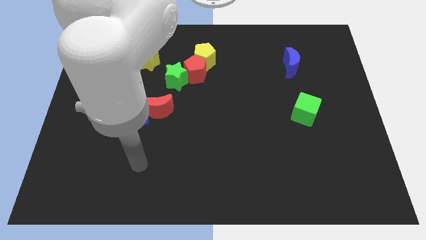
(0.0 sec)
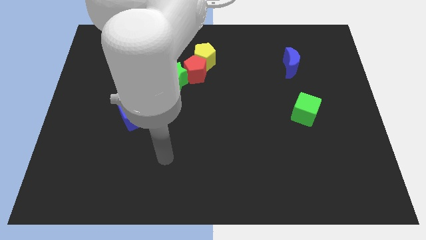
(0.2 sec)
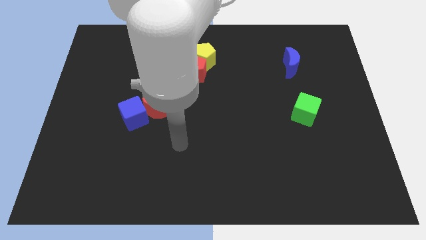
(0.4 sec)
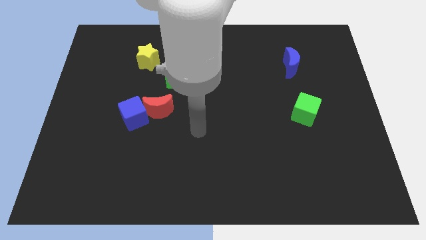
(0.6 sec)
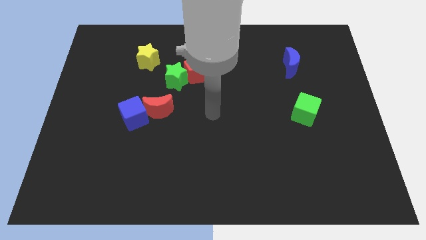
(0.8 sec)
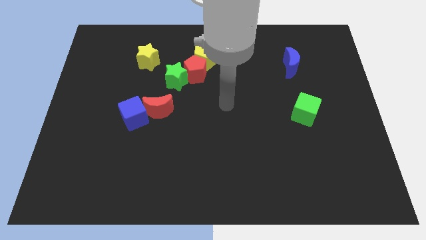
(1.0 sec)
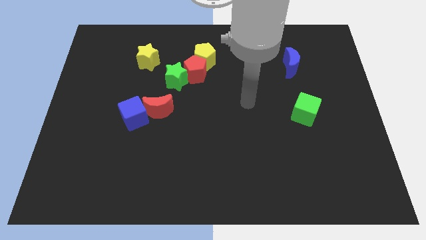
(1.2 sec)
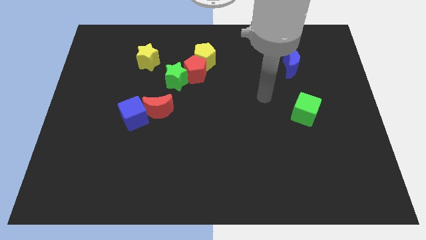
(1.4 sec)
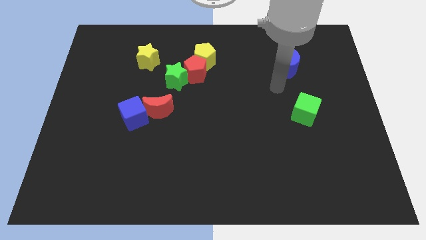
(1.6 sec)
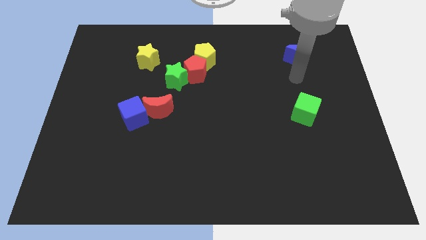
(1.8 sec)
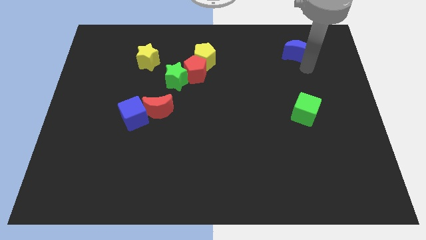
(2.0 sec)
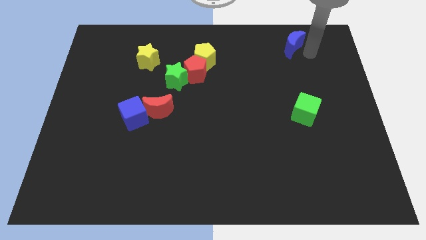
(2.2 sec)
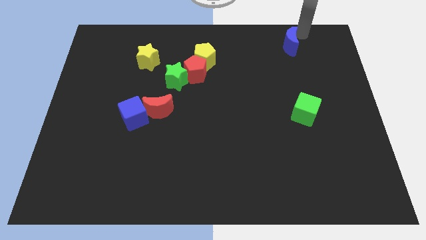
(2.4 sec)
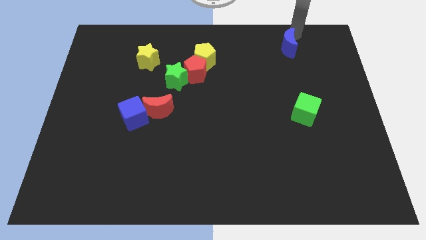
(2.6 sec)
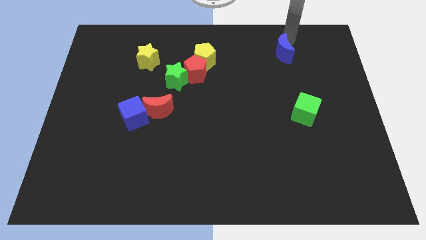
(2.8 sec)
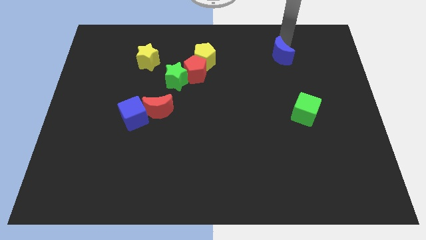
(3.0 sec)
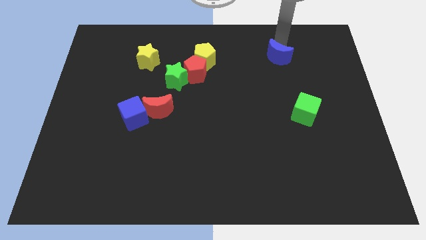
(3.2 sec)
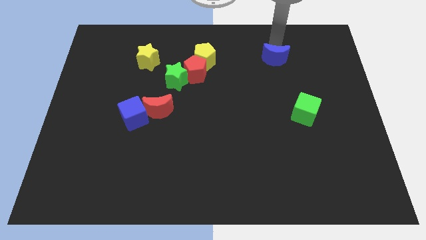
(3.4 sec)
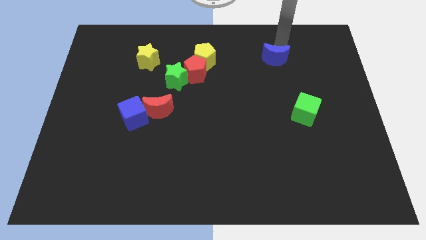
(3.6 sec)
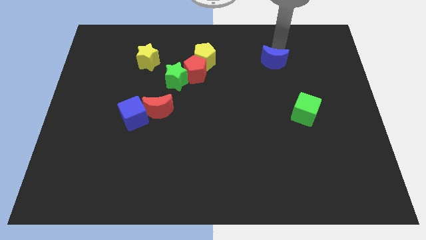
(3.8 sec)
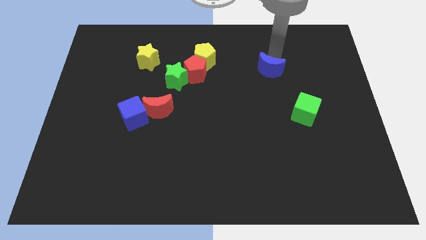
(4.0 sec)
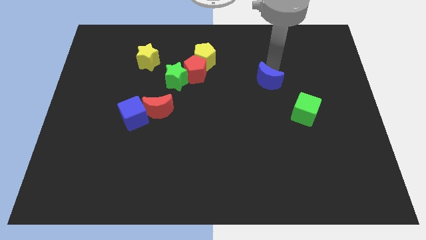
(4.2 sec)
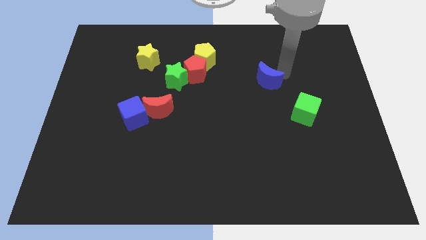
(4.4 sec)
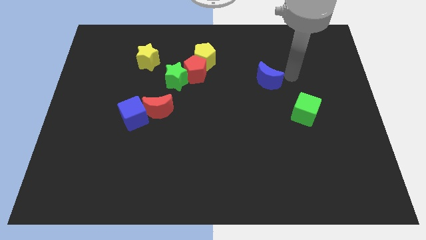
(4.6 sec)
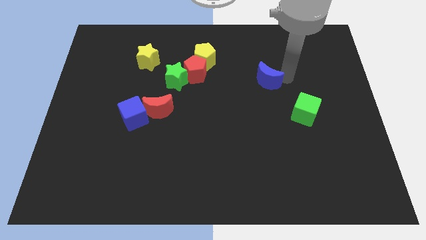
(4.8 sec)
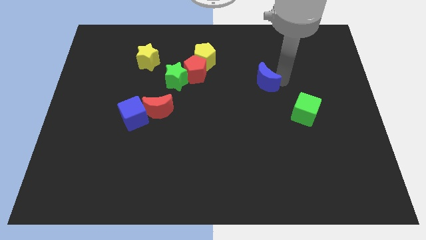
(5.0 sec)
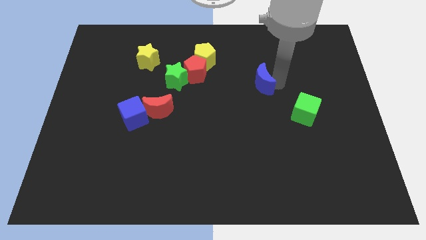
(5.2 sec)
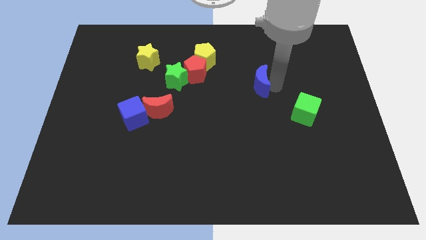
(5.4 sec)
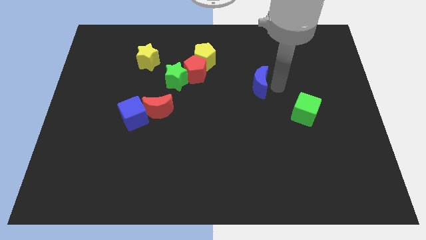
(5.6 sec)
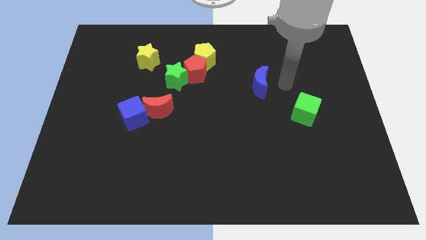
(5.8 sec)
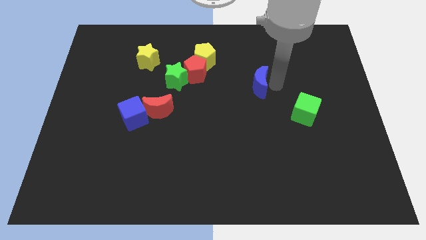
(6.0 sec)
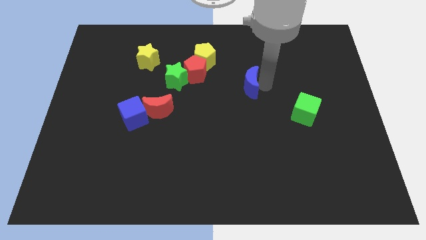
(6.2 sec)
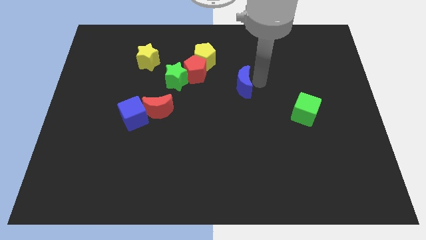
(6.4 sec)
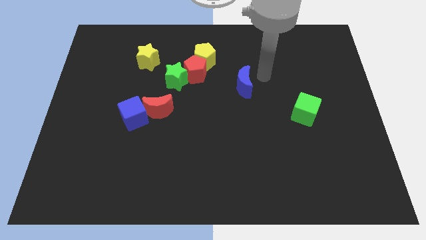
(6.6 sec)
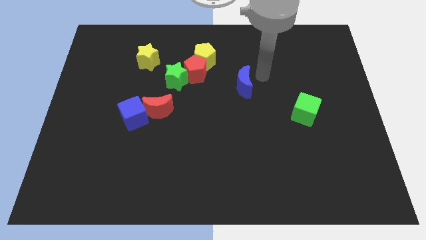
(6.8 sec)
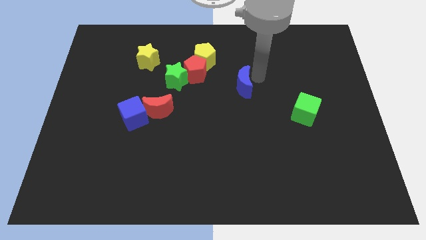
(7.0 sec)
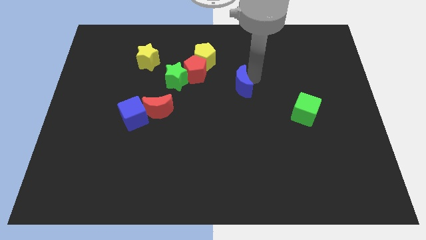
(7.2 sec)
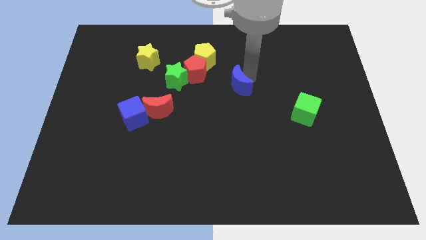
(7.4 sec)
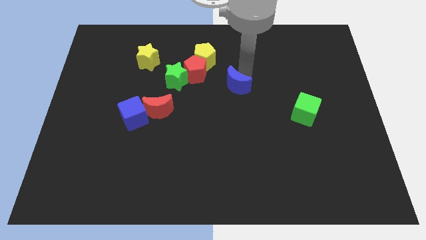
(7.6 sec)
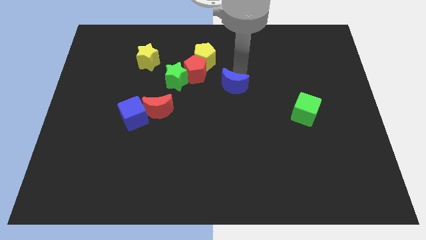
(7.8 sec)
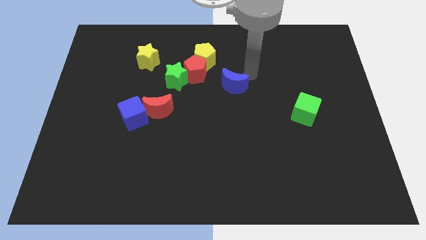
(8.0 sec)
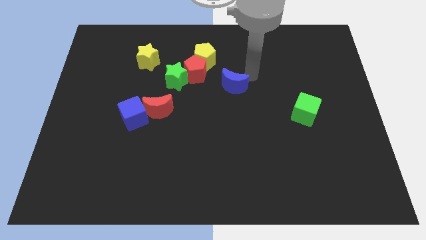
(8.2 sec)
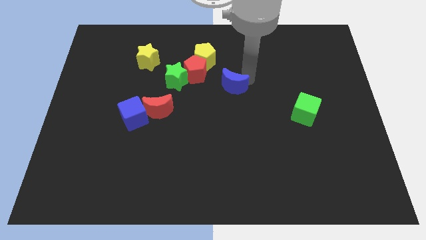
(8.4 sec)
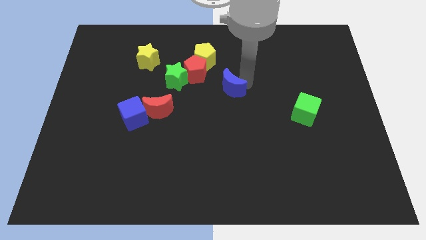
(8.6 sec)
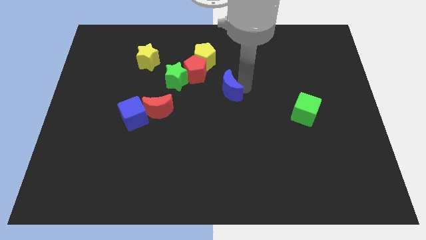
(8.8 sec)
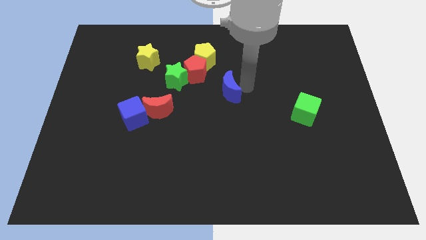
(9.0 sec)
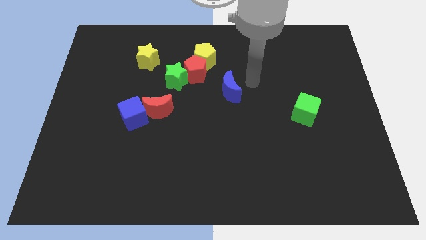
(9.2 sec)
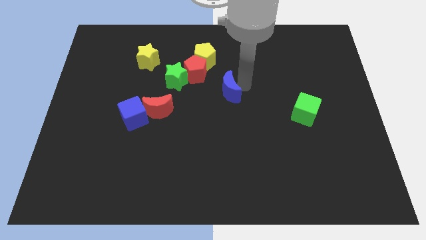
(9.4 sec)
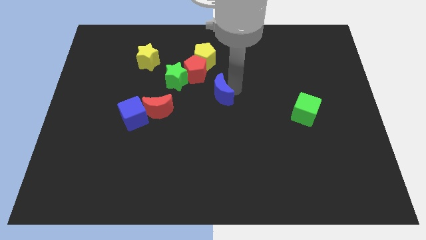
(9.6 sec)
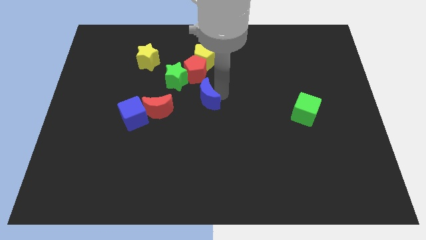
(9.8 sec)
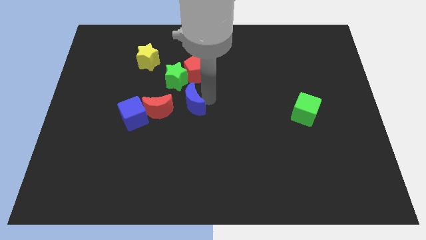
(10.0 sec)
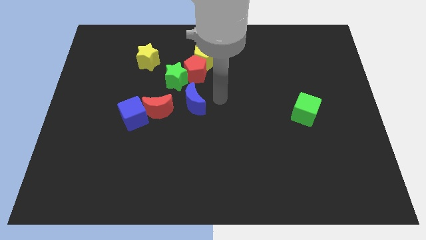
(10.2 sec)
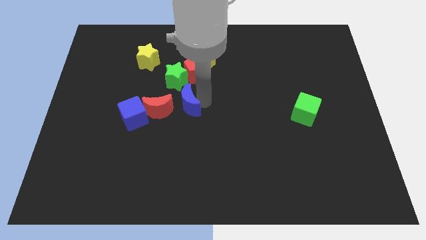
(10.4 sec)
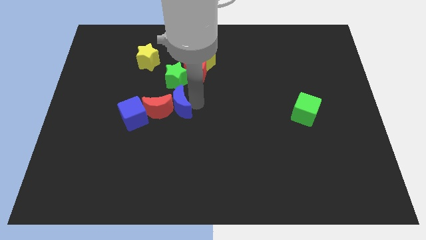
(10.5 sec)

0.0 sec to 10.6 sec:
move the blue moon close to the red moon

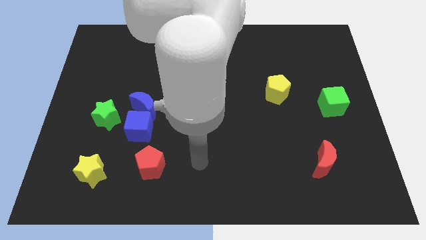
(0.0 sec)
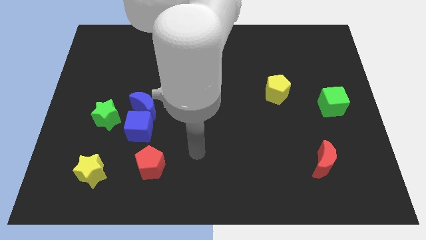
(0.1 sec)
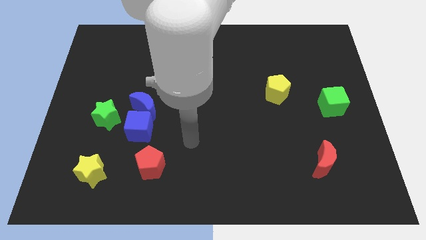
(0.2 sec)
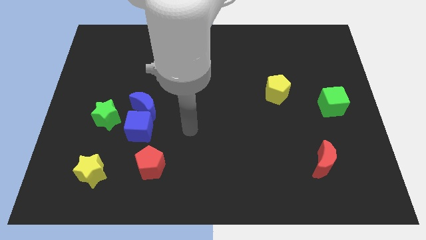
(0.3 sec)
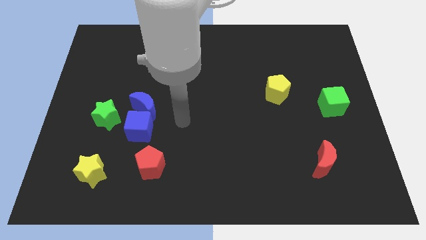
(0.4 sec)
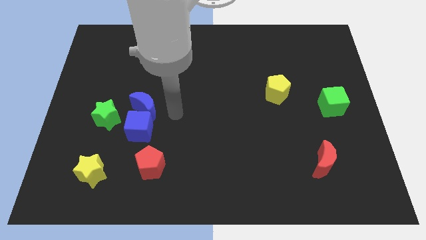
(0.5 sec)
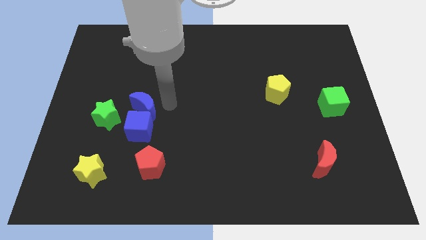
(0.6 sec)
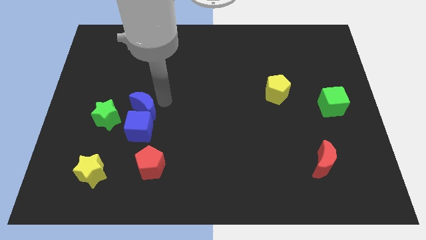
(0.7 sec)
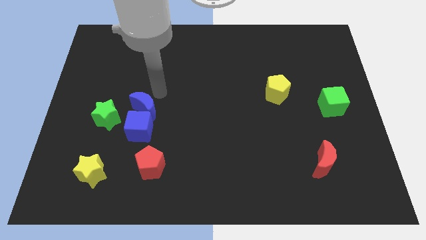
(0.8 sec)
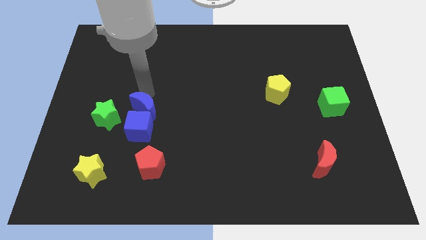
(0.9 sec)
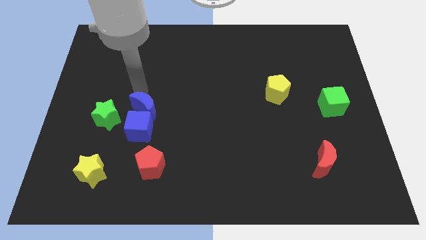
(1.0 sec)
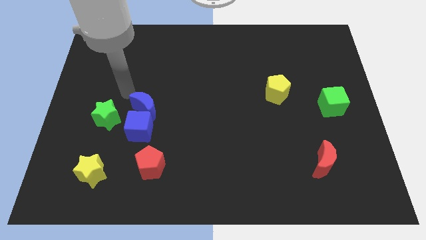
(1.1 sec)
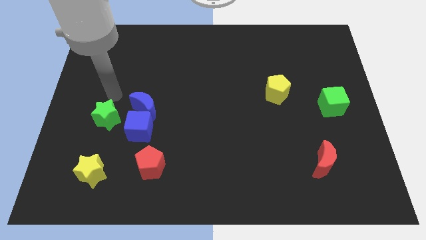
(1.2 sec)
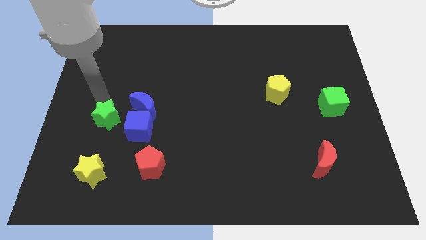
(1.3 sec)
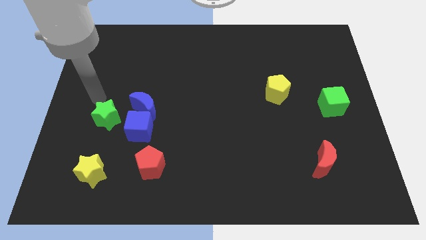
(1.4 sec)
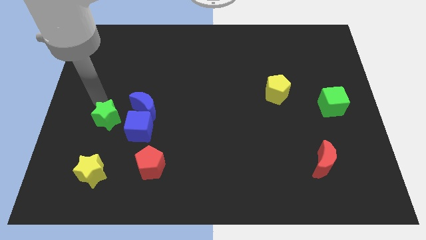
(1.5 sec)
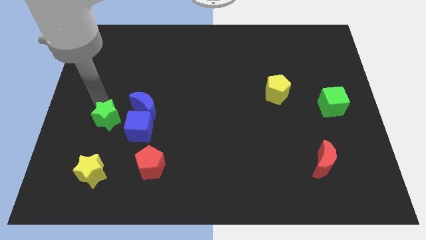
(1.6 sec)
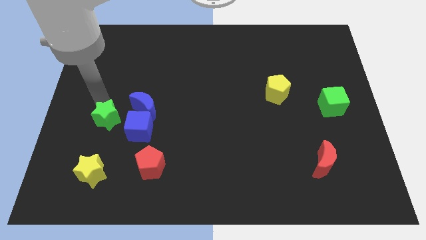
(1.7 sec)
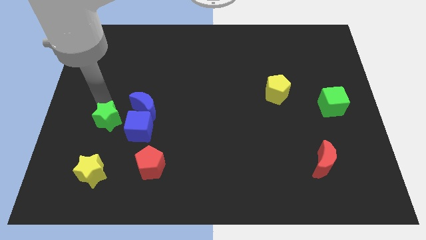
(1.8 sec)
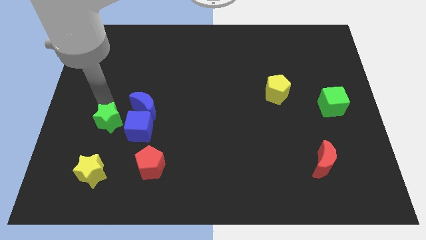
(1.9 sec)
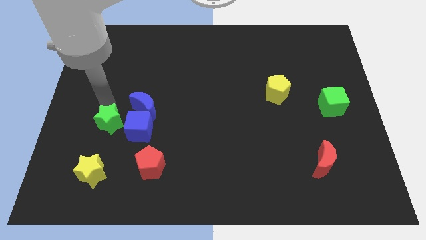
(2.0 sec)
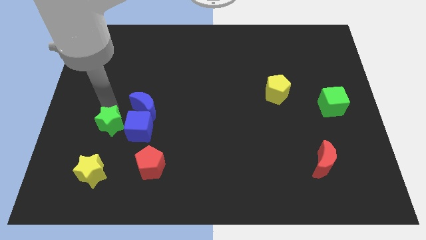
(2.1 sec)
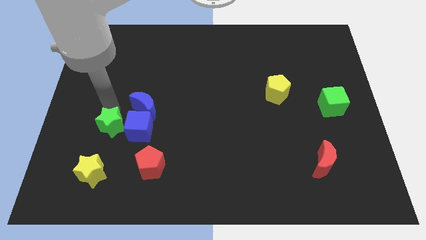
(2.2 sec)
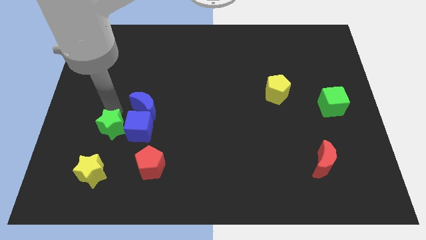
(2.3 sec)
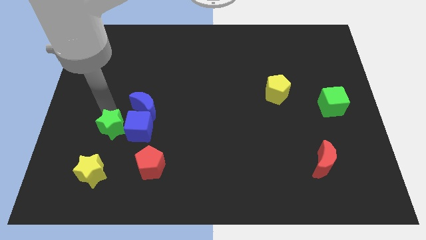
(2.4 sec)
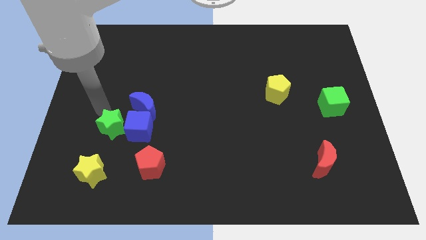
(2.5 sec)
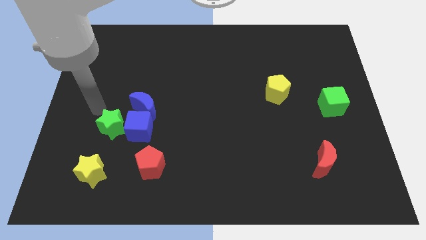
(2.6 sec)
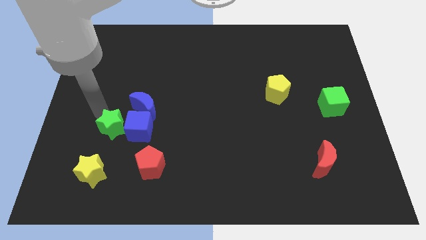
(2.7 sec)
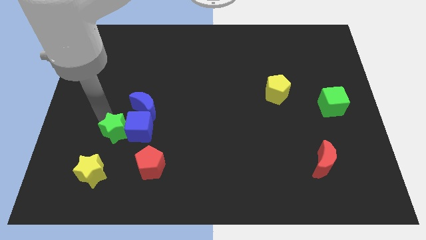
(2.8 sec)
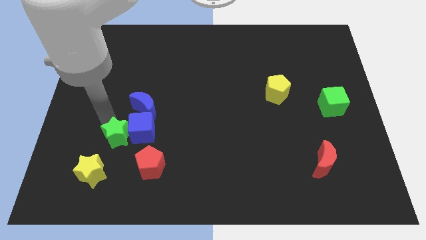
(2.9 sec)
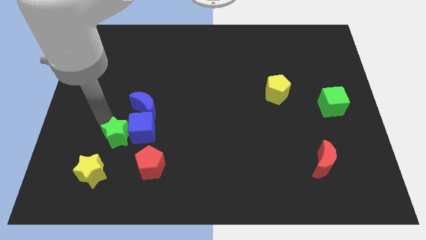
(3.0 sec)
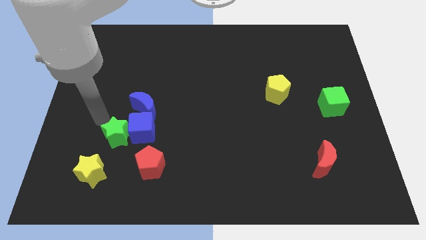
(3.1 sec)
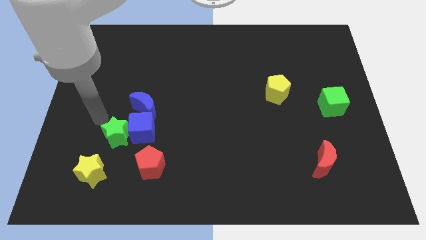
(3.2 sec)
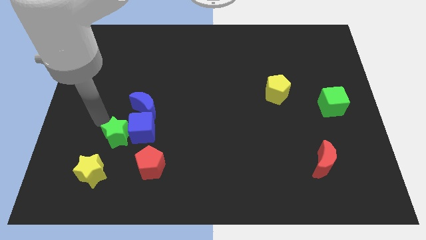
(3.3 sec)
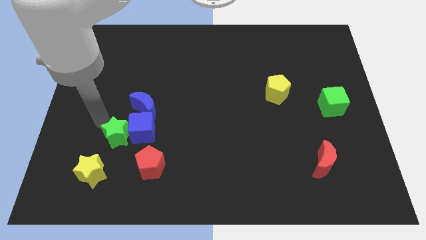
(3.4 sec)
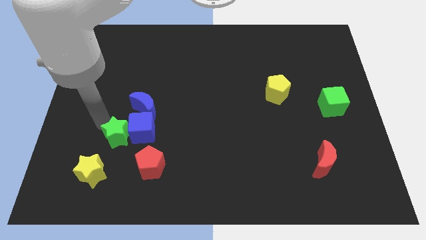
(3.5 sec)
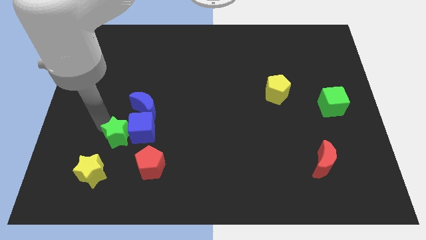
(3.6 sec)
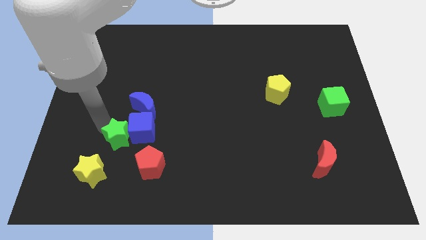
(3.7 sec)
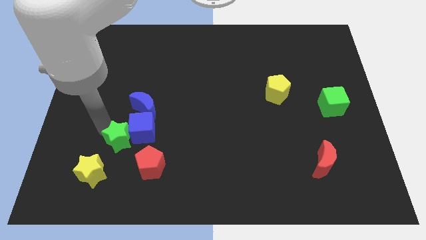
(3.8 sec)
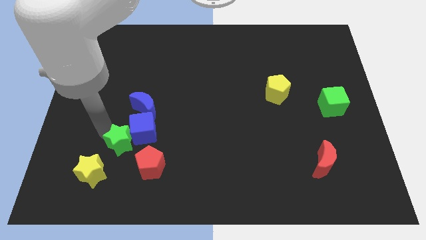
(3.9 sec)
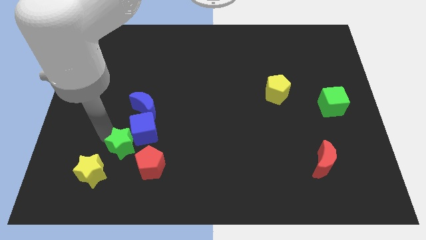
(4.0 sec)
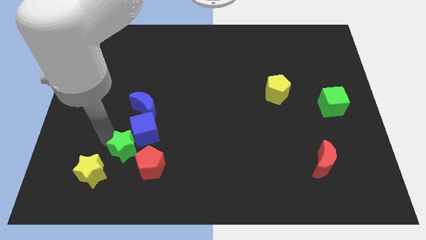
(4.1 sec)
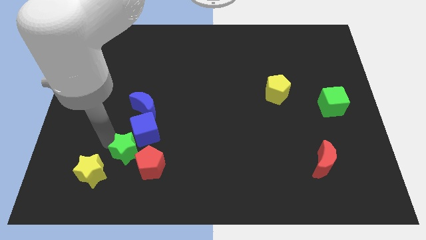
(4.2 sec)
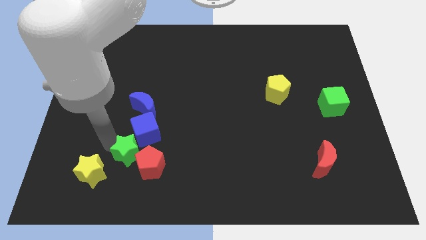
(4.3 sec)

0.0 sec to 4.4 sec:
move the green star to the red pentagon
